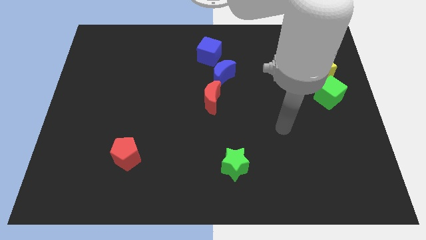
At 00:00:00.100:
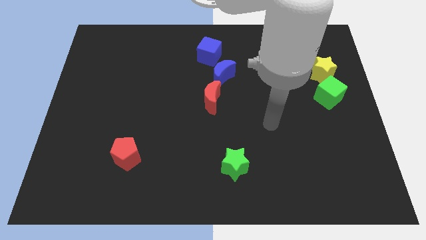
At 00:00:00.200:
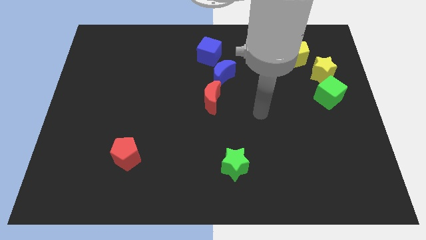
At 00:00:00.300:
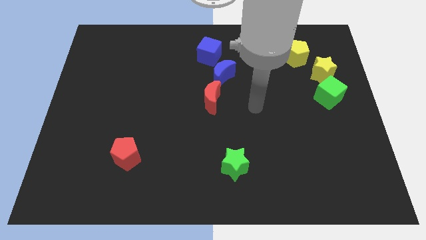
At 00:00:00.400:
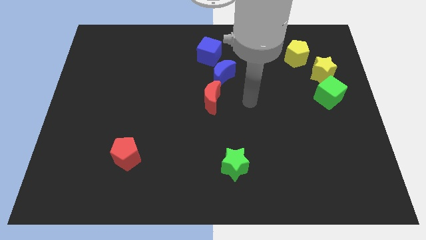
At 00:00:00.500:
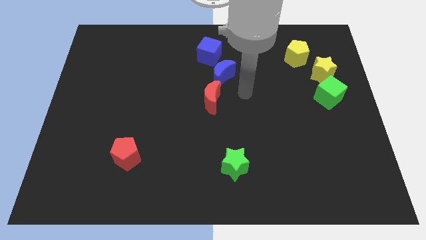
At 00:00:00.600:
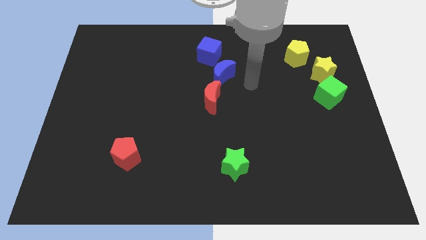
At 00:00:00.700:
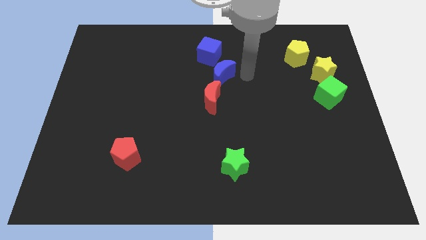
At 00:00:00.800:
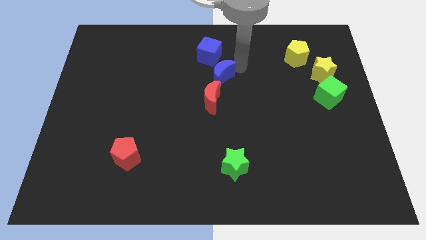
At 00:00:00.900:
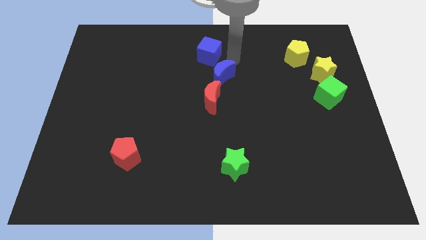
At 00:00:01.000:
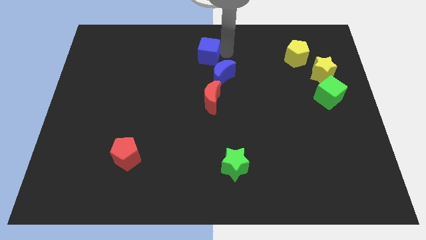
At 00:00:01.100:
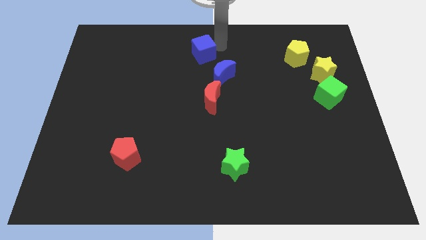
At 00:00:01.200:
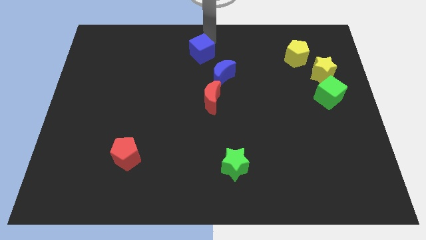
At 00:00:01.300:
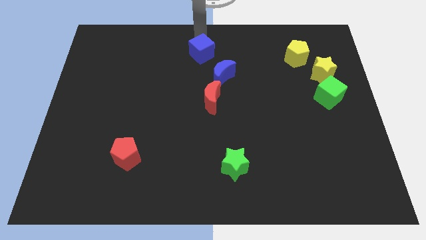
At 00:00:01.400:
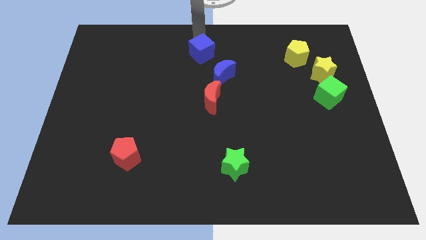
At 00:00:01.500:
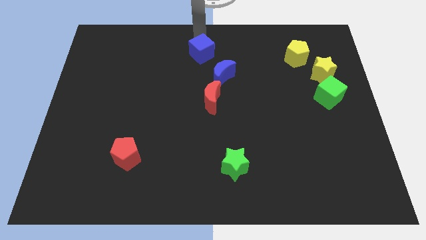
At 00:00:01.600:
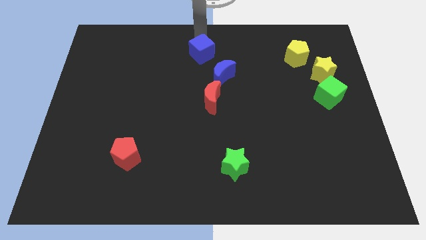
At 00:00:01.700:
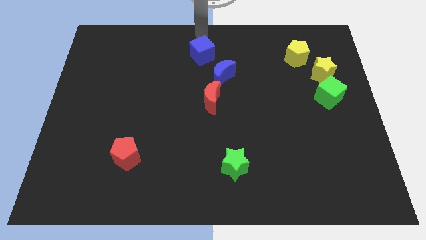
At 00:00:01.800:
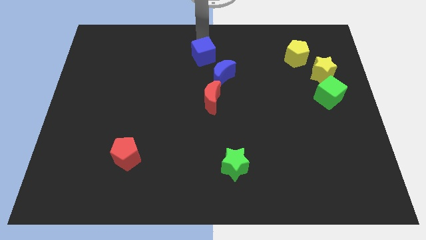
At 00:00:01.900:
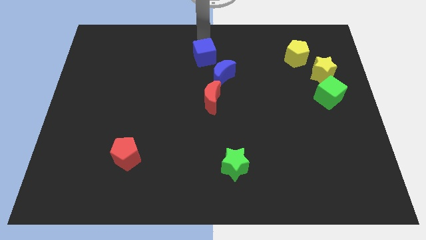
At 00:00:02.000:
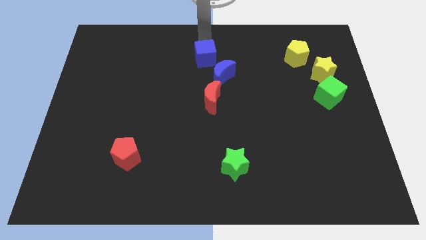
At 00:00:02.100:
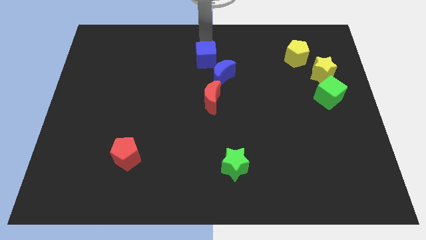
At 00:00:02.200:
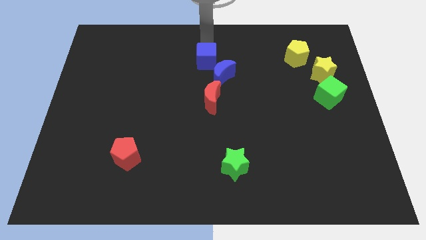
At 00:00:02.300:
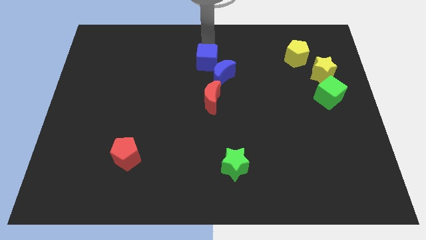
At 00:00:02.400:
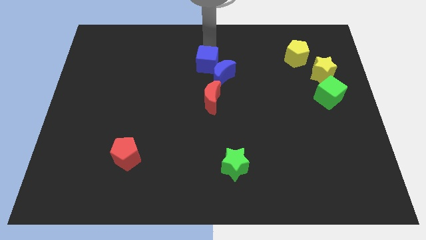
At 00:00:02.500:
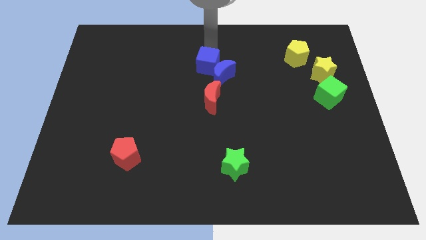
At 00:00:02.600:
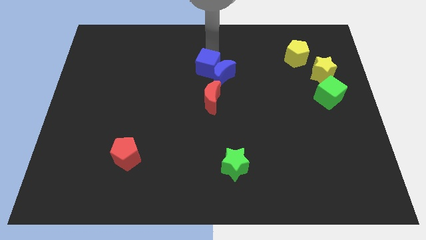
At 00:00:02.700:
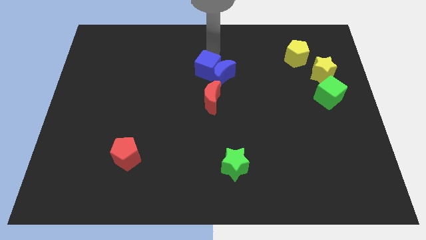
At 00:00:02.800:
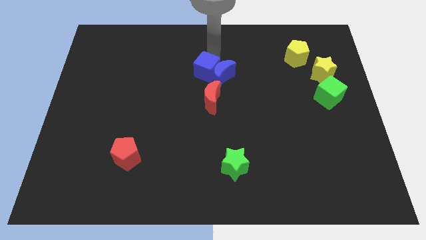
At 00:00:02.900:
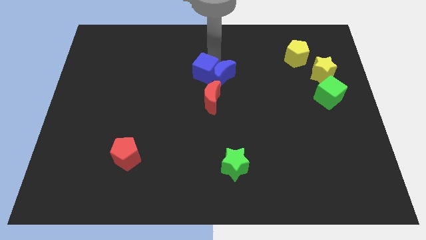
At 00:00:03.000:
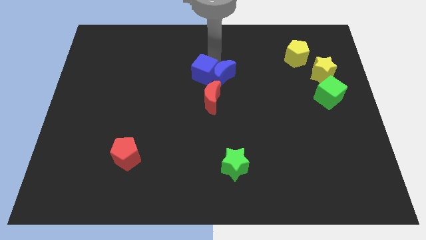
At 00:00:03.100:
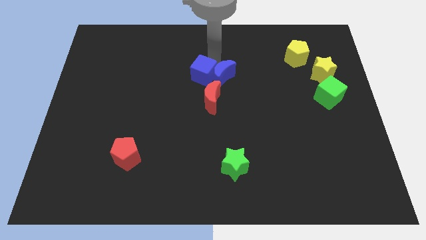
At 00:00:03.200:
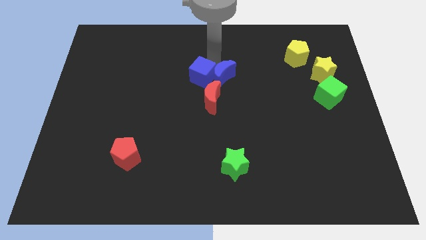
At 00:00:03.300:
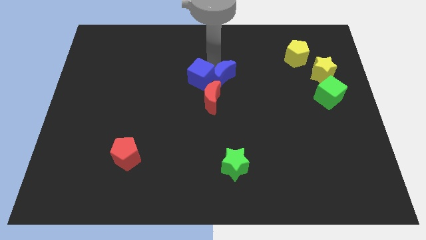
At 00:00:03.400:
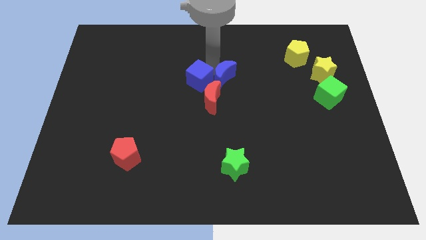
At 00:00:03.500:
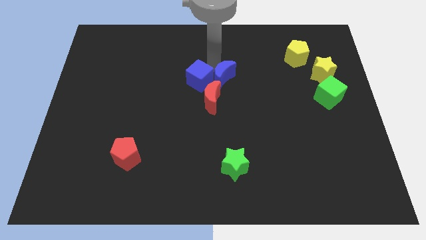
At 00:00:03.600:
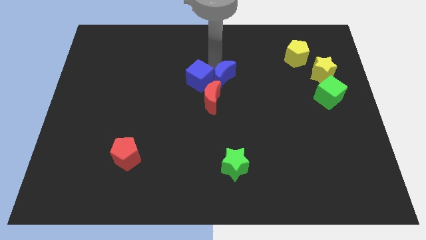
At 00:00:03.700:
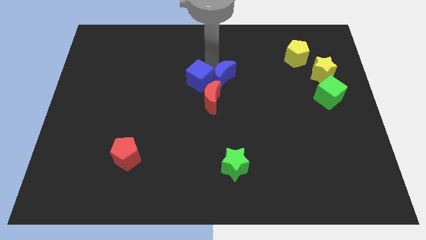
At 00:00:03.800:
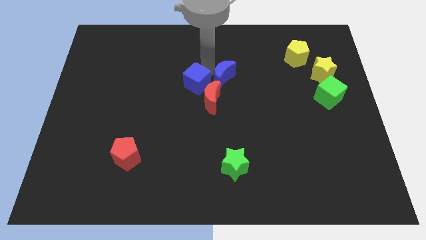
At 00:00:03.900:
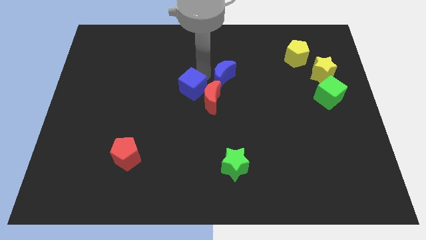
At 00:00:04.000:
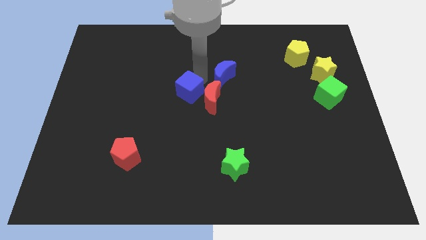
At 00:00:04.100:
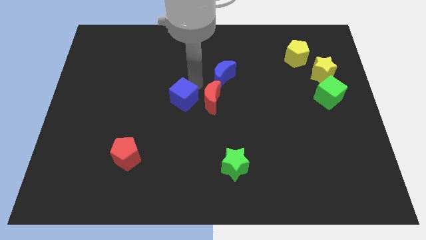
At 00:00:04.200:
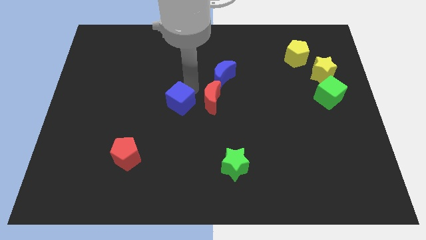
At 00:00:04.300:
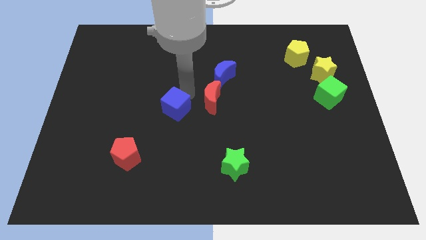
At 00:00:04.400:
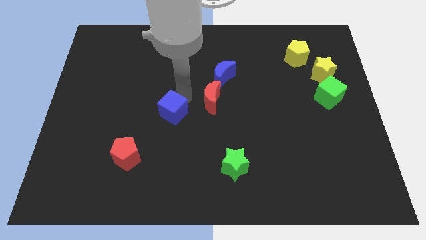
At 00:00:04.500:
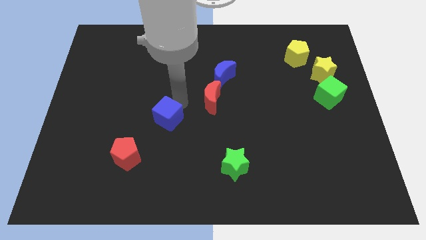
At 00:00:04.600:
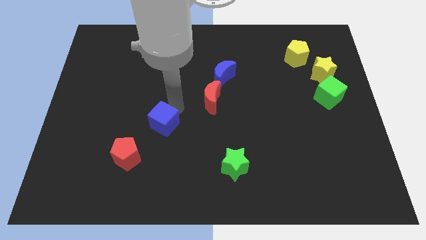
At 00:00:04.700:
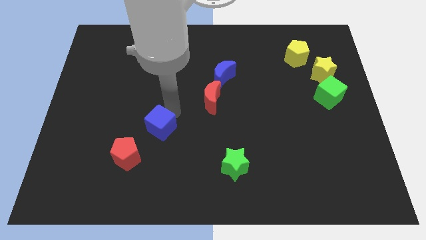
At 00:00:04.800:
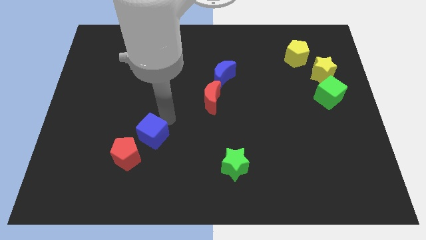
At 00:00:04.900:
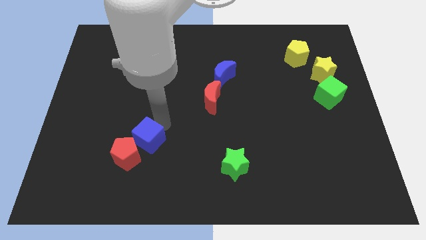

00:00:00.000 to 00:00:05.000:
slide the blue cube towards the red pentagon

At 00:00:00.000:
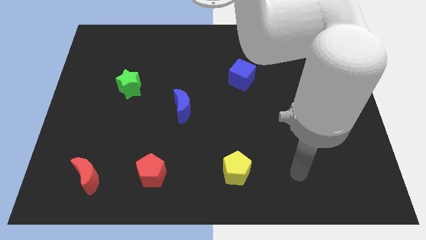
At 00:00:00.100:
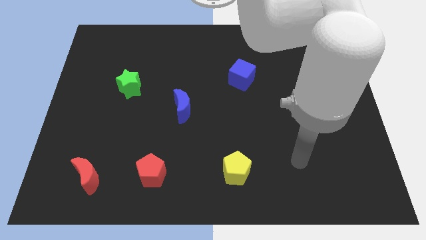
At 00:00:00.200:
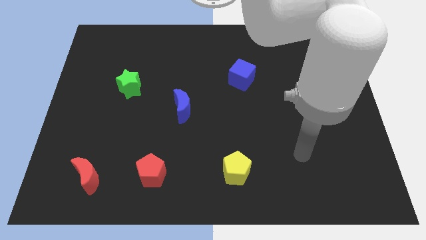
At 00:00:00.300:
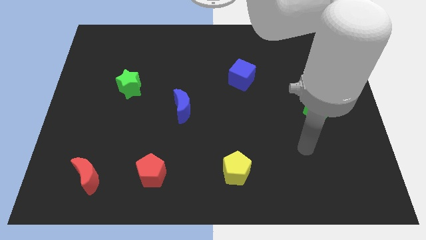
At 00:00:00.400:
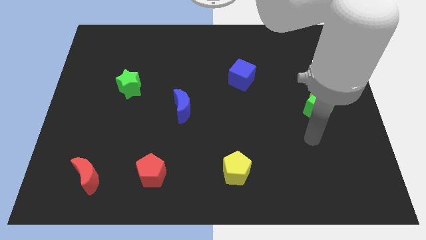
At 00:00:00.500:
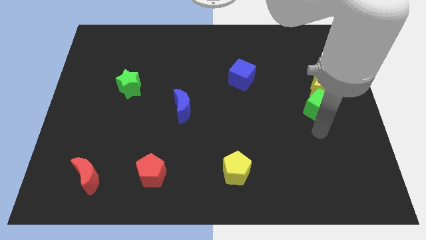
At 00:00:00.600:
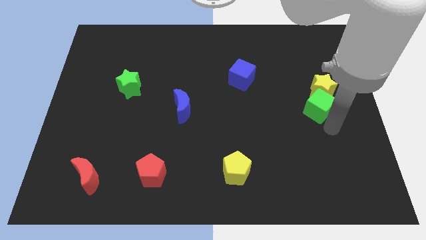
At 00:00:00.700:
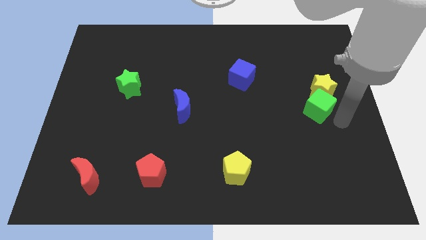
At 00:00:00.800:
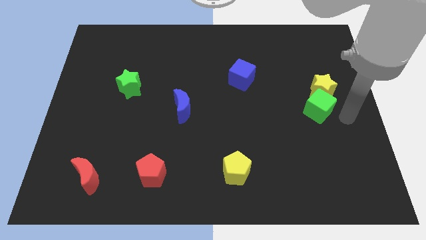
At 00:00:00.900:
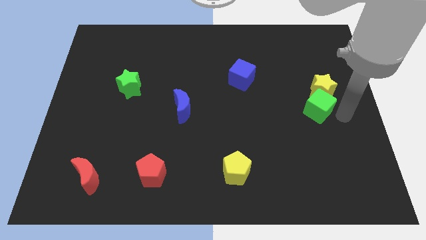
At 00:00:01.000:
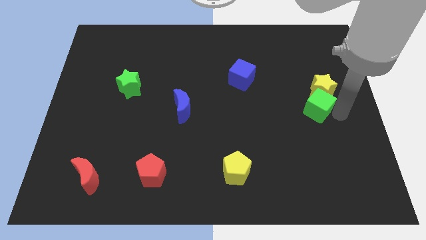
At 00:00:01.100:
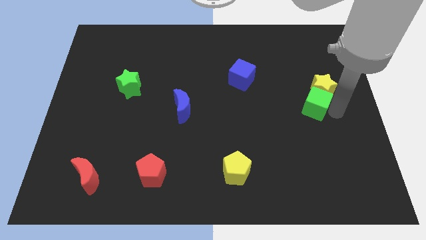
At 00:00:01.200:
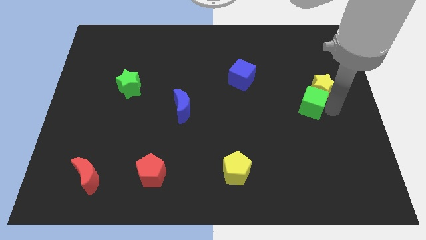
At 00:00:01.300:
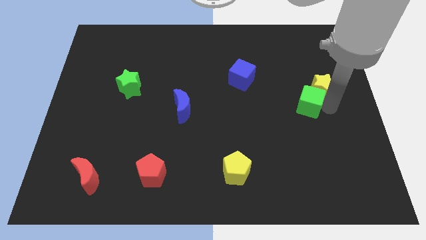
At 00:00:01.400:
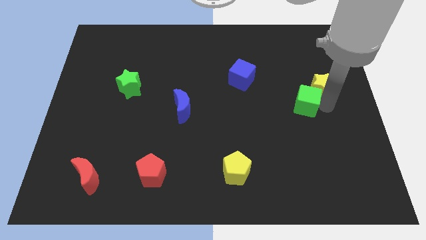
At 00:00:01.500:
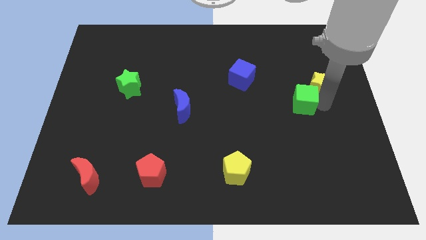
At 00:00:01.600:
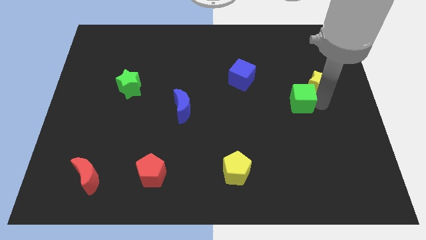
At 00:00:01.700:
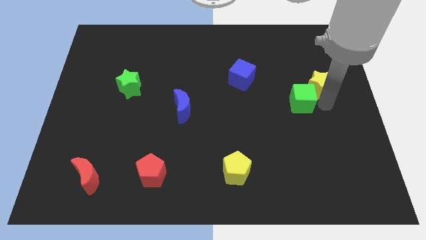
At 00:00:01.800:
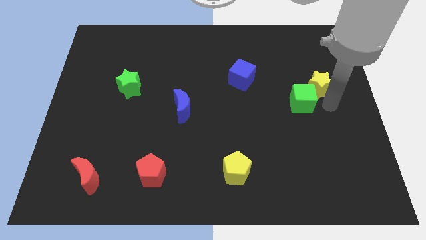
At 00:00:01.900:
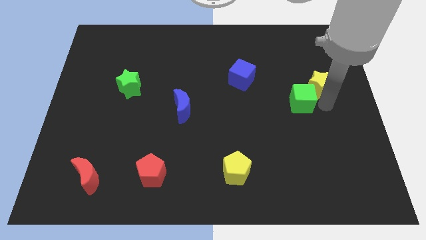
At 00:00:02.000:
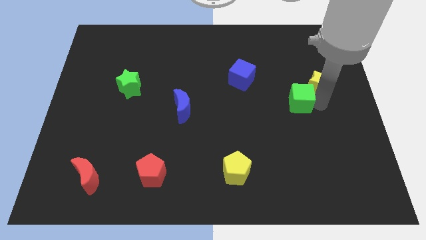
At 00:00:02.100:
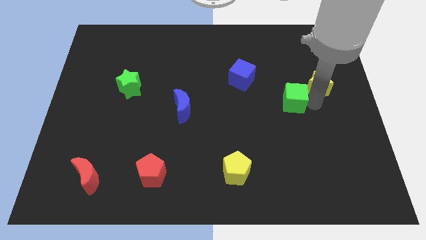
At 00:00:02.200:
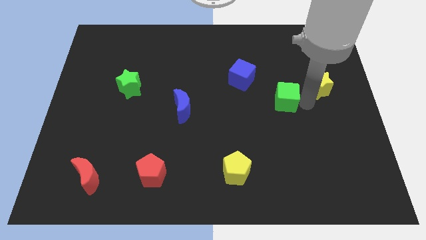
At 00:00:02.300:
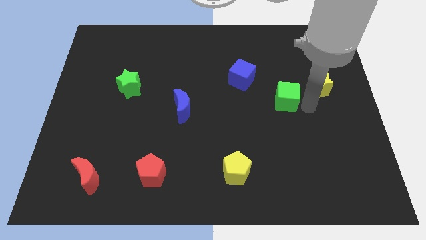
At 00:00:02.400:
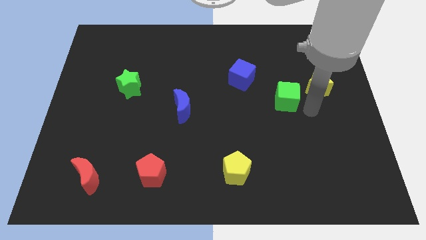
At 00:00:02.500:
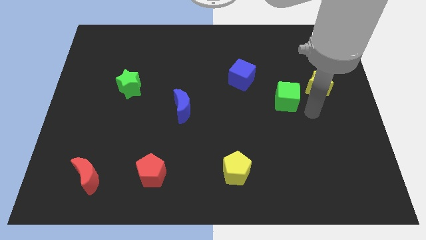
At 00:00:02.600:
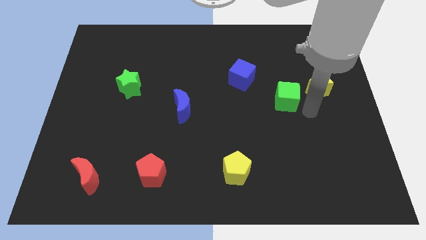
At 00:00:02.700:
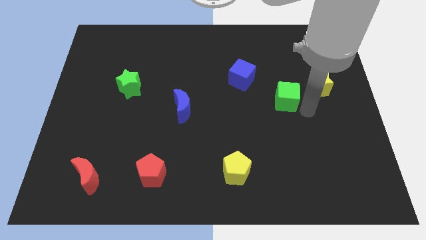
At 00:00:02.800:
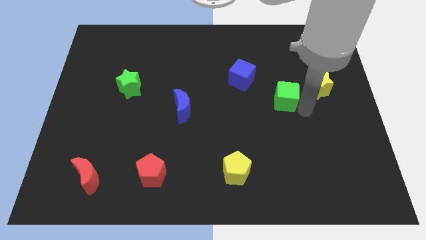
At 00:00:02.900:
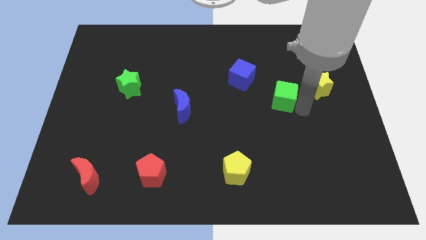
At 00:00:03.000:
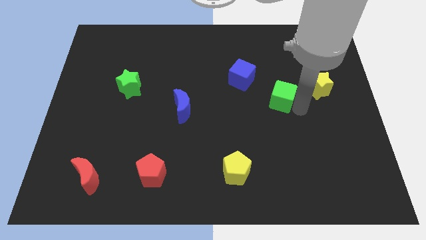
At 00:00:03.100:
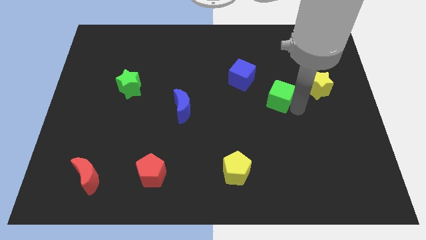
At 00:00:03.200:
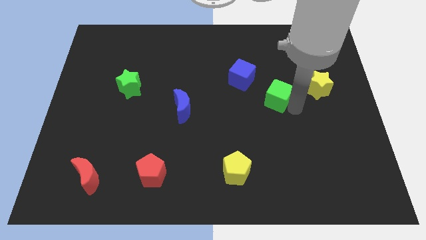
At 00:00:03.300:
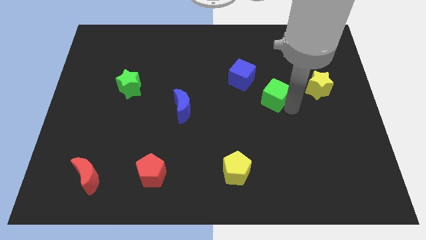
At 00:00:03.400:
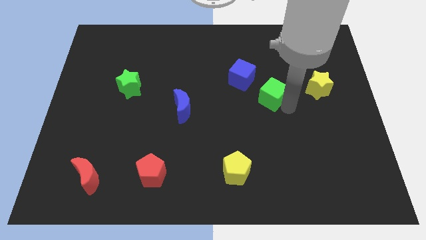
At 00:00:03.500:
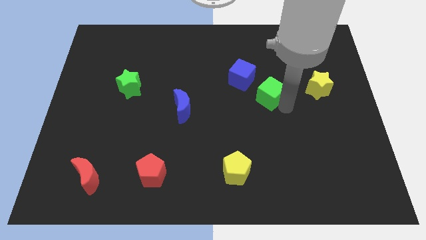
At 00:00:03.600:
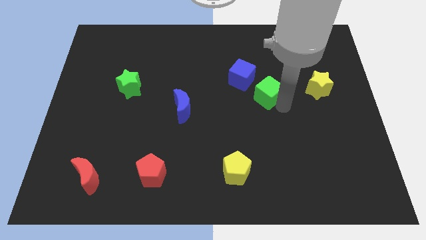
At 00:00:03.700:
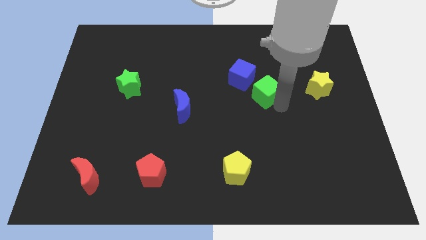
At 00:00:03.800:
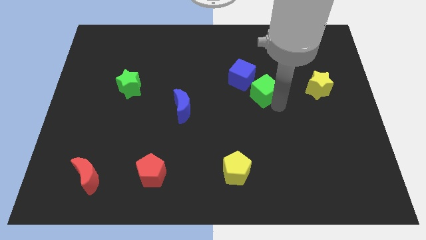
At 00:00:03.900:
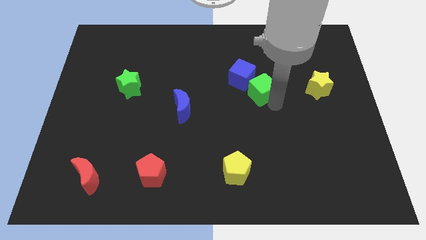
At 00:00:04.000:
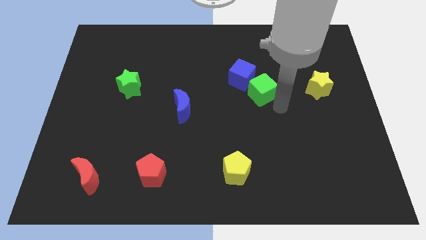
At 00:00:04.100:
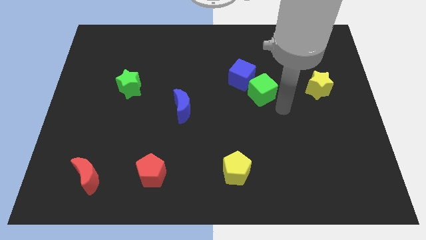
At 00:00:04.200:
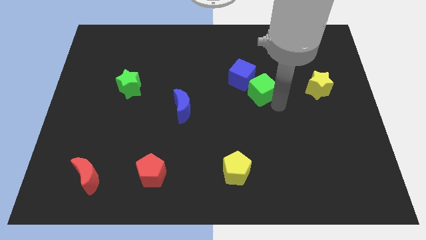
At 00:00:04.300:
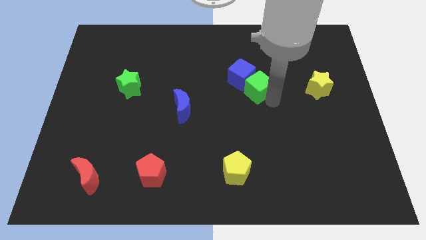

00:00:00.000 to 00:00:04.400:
push the green cube next to the blue cube
